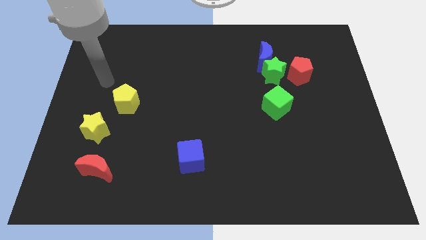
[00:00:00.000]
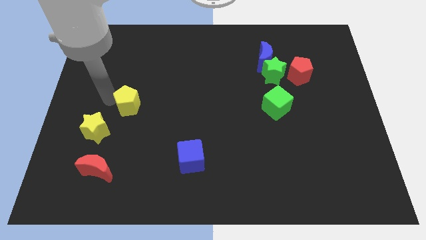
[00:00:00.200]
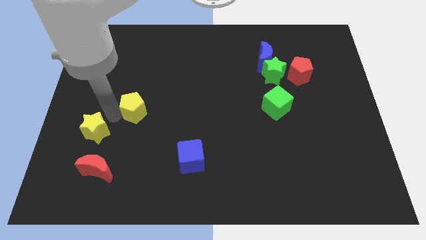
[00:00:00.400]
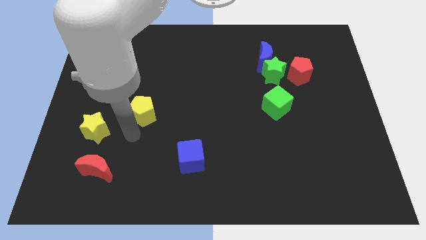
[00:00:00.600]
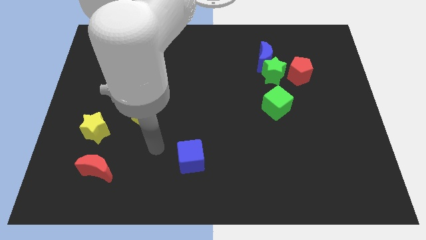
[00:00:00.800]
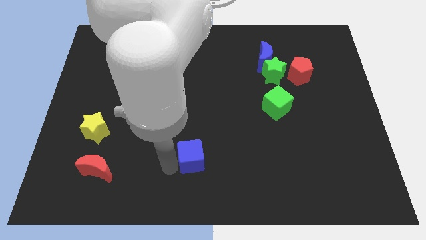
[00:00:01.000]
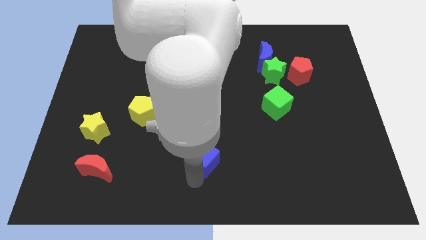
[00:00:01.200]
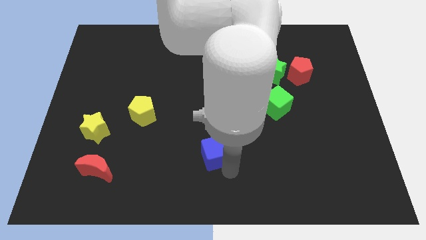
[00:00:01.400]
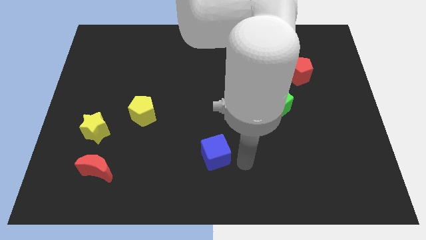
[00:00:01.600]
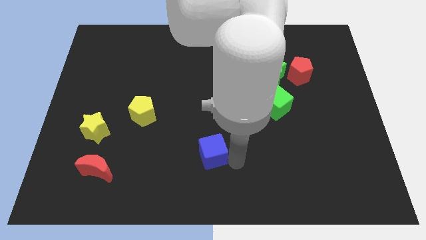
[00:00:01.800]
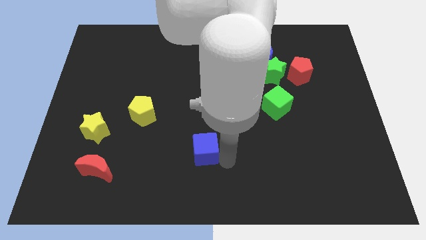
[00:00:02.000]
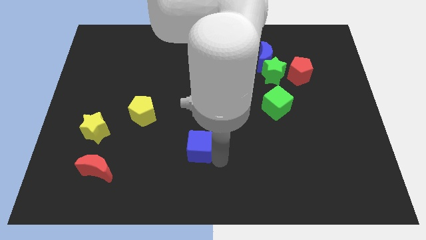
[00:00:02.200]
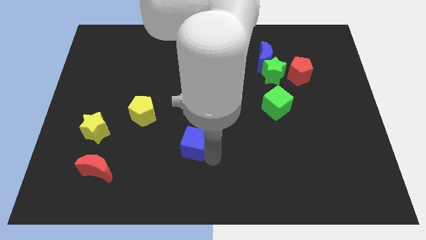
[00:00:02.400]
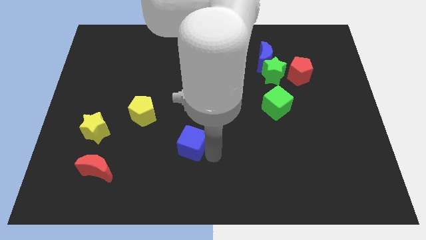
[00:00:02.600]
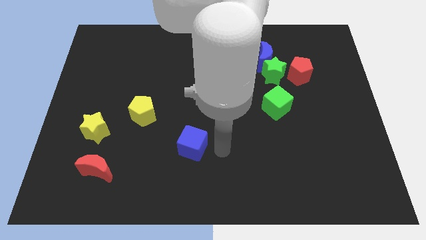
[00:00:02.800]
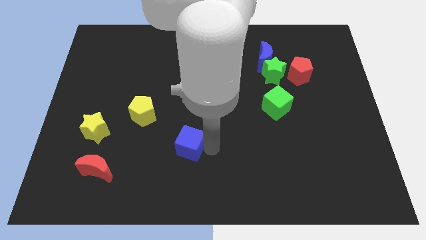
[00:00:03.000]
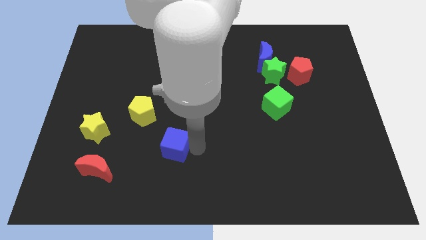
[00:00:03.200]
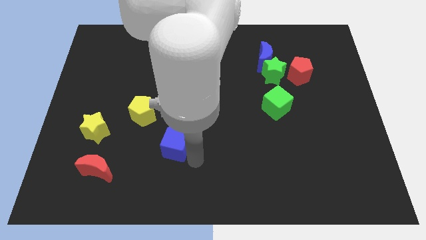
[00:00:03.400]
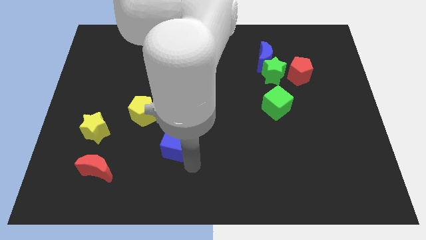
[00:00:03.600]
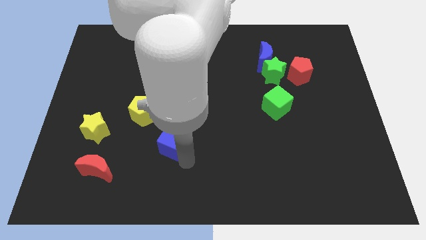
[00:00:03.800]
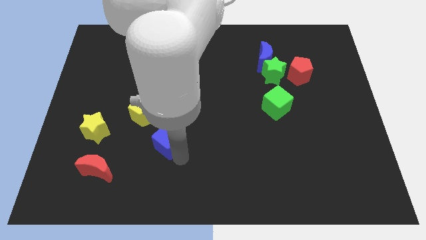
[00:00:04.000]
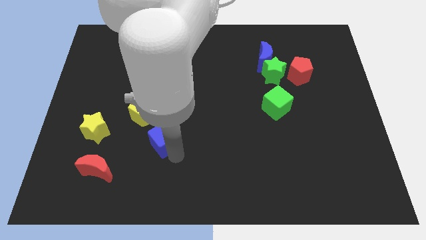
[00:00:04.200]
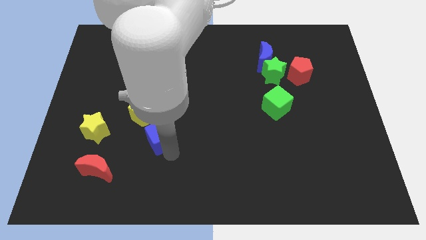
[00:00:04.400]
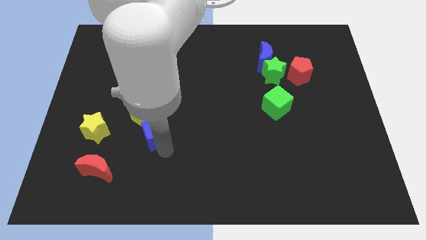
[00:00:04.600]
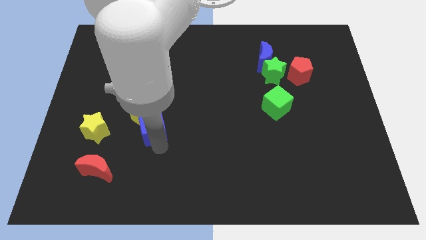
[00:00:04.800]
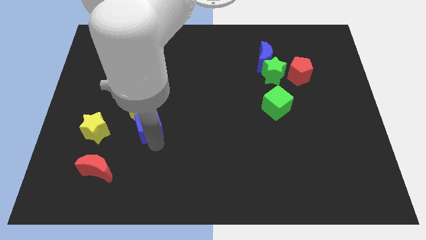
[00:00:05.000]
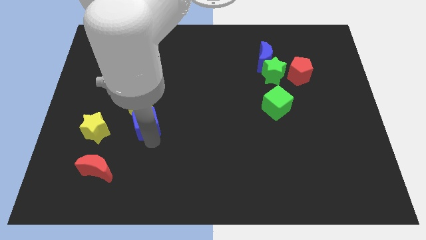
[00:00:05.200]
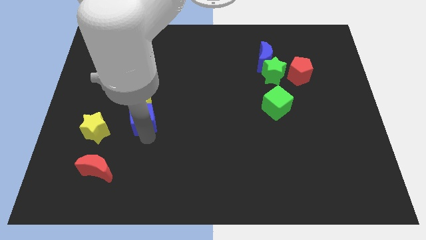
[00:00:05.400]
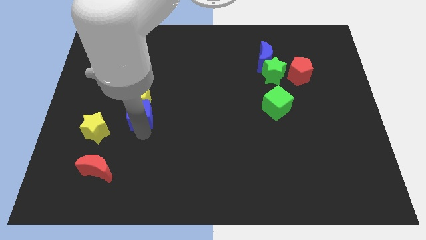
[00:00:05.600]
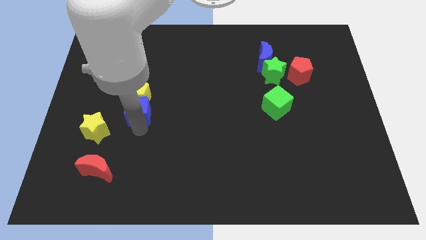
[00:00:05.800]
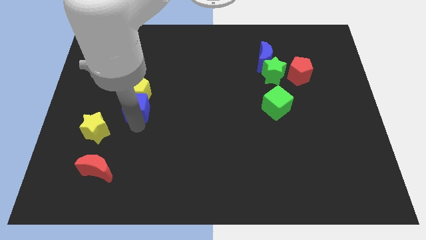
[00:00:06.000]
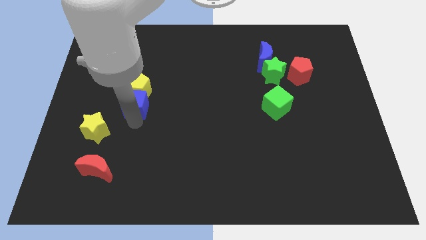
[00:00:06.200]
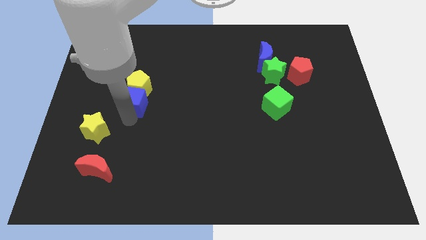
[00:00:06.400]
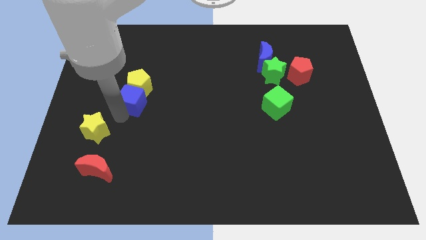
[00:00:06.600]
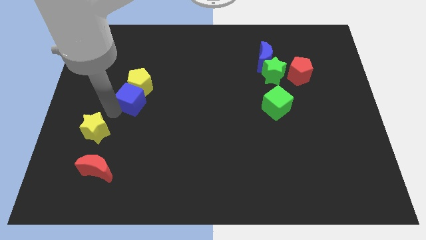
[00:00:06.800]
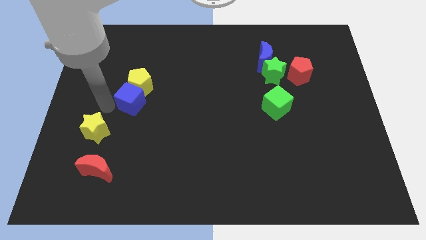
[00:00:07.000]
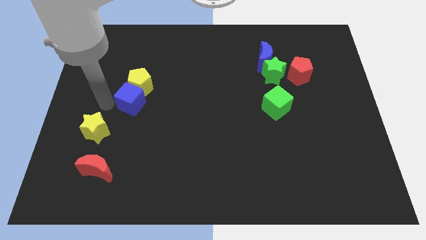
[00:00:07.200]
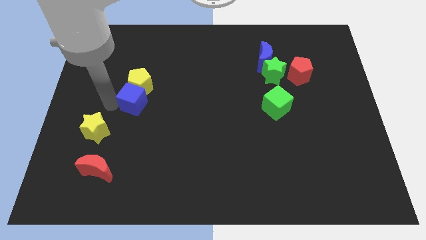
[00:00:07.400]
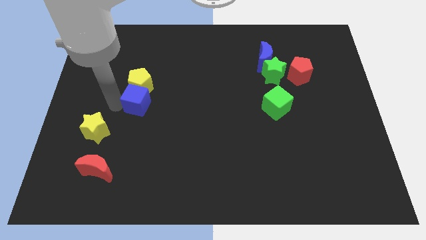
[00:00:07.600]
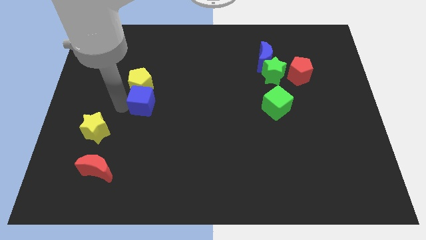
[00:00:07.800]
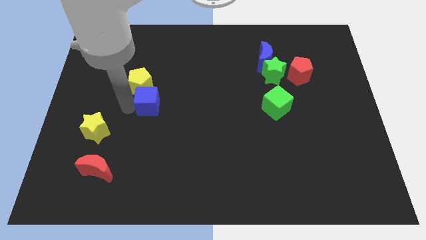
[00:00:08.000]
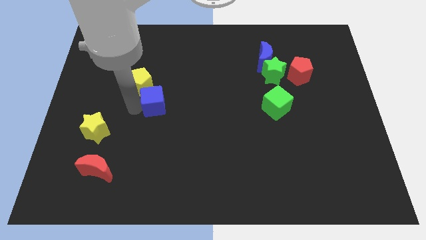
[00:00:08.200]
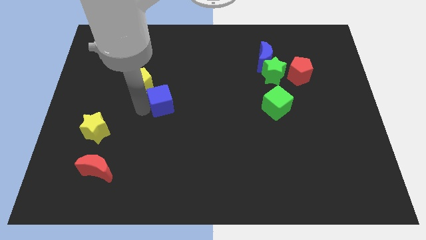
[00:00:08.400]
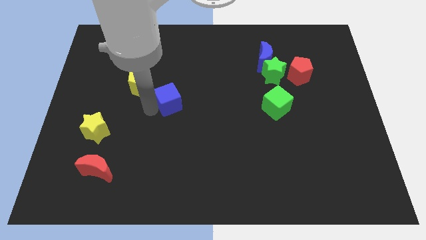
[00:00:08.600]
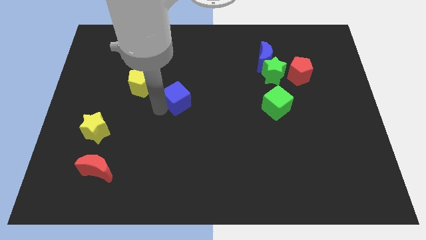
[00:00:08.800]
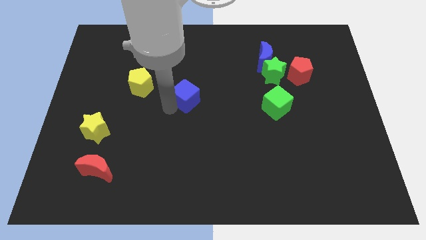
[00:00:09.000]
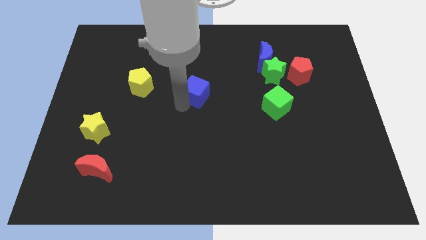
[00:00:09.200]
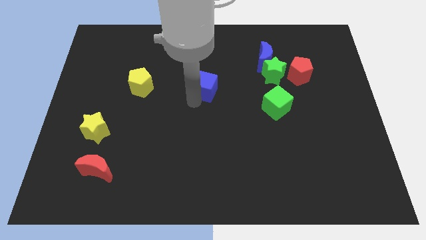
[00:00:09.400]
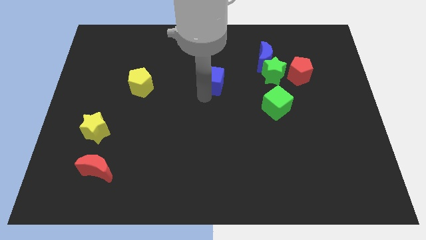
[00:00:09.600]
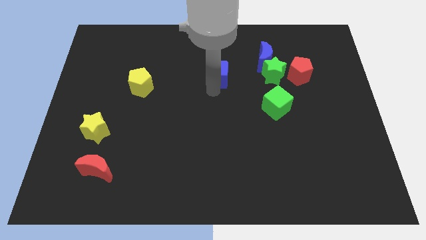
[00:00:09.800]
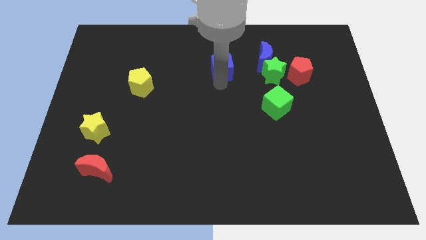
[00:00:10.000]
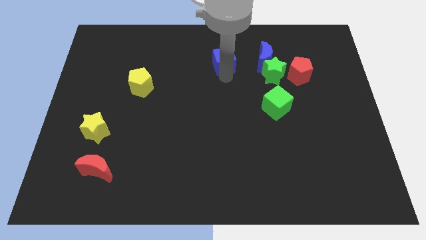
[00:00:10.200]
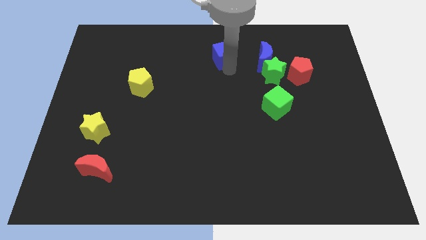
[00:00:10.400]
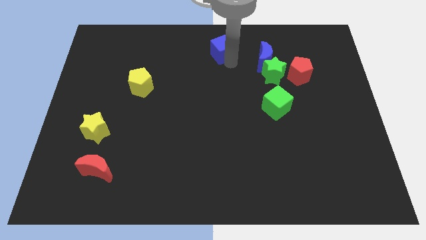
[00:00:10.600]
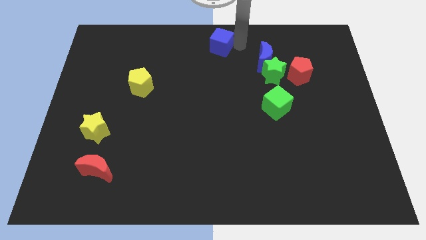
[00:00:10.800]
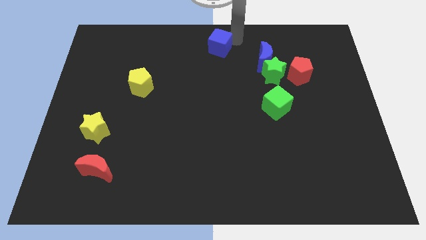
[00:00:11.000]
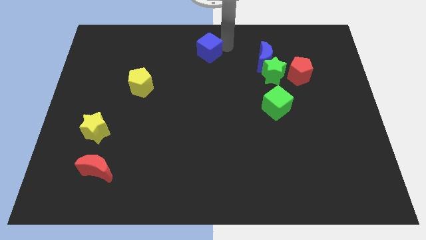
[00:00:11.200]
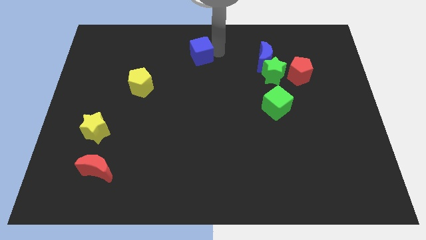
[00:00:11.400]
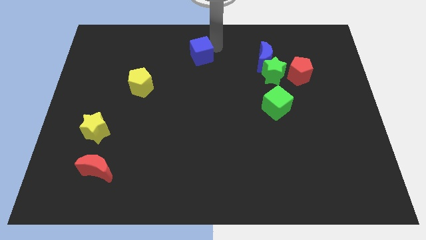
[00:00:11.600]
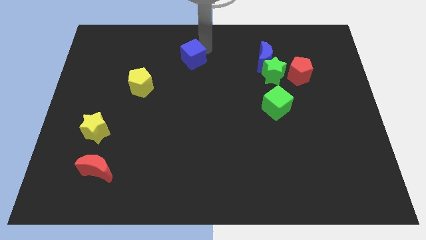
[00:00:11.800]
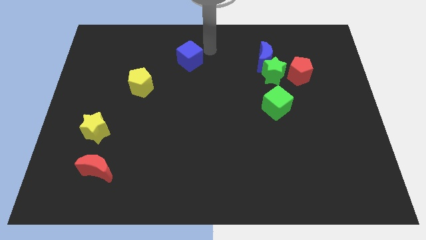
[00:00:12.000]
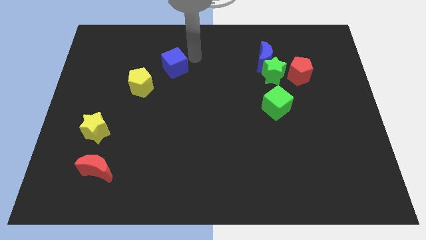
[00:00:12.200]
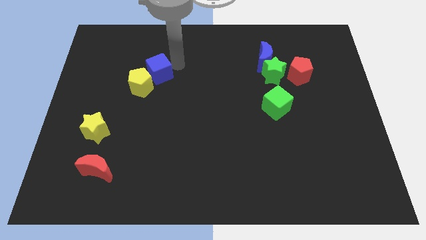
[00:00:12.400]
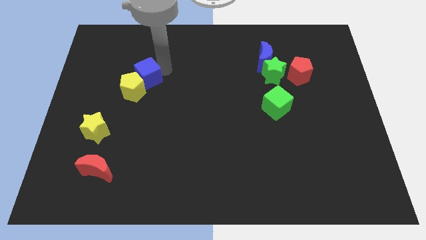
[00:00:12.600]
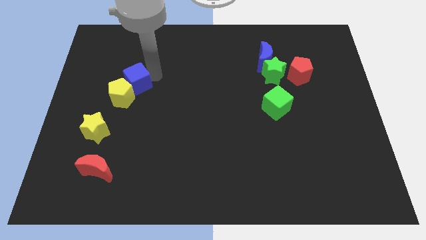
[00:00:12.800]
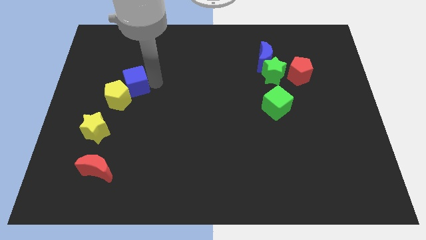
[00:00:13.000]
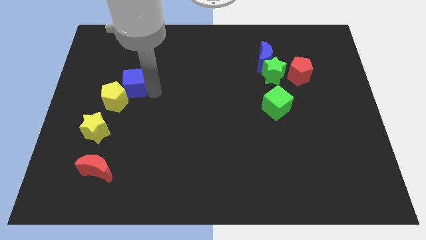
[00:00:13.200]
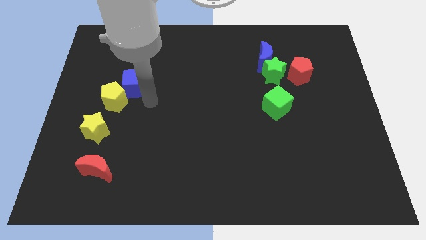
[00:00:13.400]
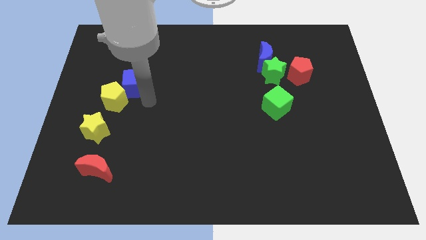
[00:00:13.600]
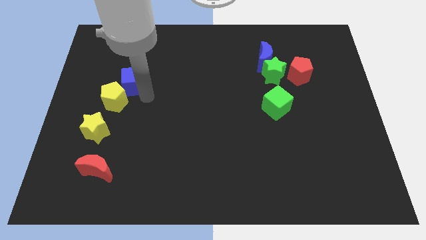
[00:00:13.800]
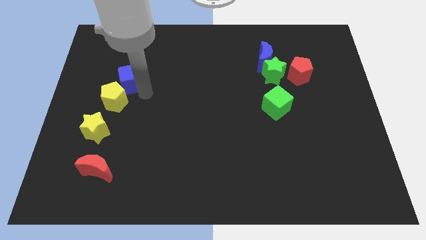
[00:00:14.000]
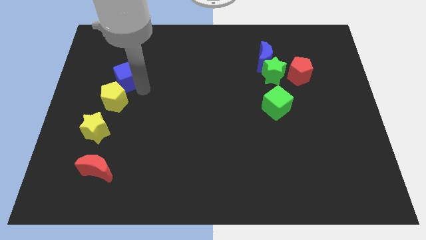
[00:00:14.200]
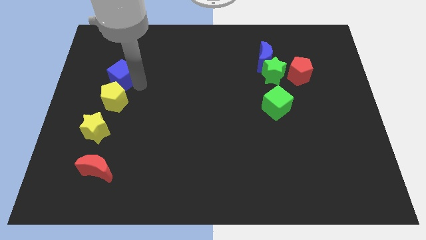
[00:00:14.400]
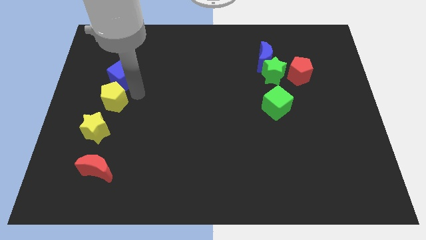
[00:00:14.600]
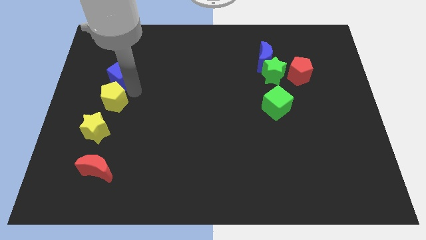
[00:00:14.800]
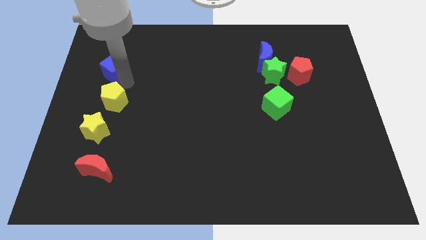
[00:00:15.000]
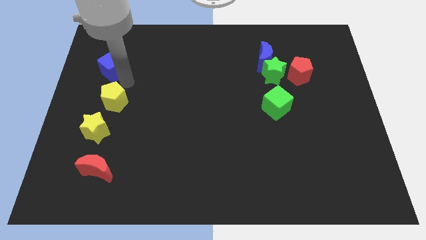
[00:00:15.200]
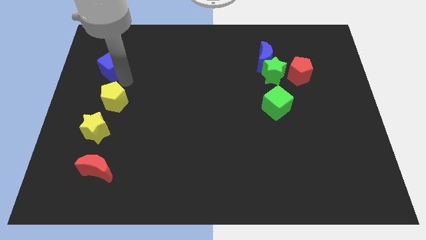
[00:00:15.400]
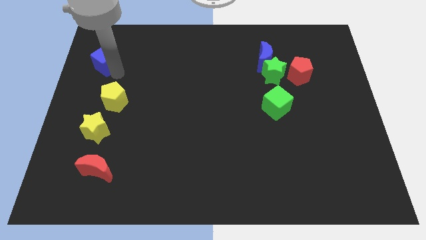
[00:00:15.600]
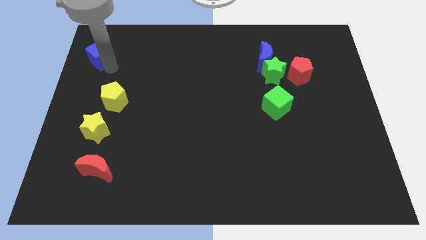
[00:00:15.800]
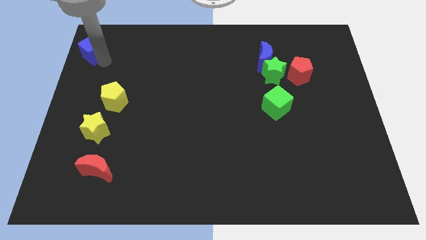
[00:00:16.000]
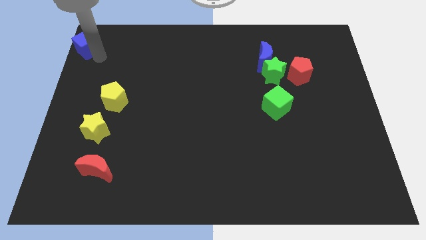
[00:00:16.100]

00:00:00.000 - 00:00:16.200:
push the blue cube to the top left corner
